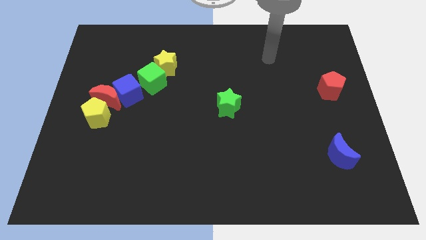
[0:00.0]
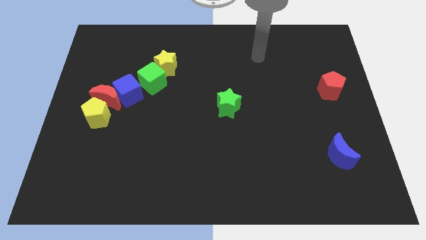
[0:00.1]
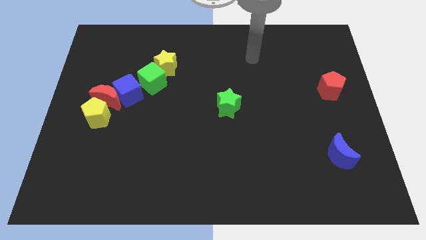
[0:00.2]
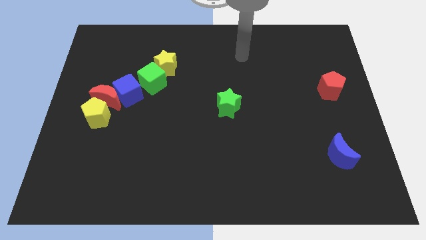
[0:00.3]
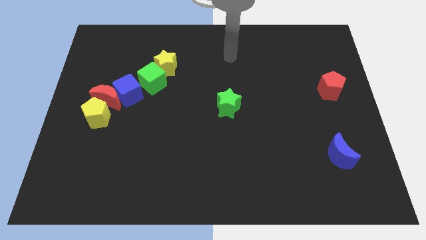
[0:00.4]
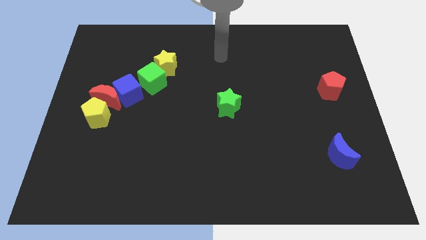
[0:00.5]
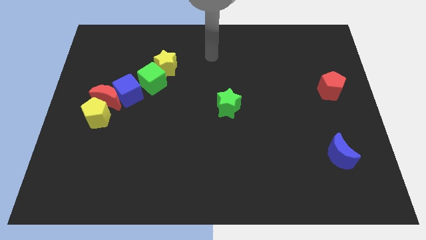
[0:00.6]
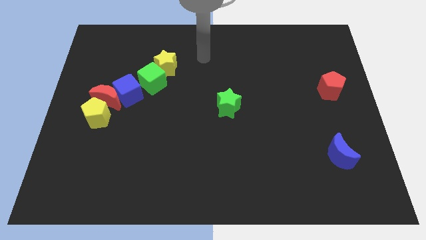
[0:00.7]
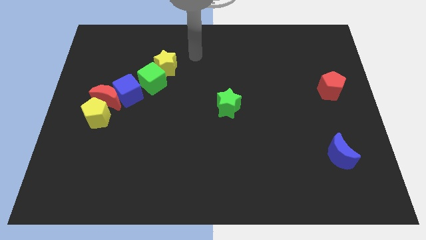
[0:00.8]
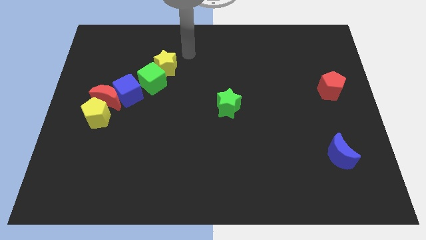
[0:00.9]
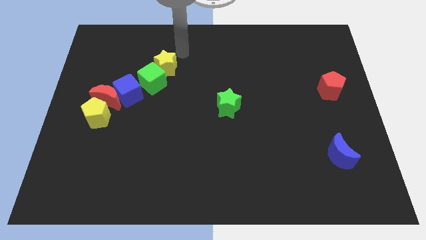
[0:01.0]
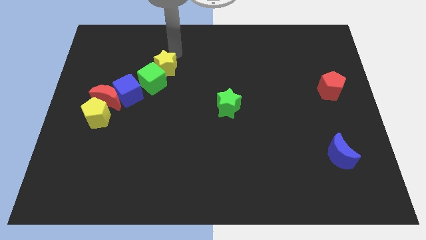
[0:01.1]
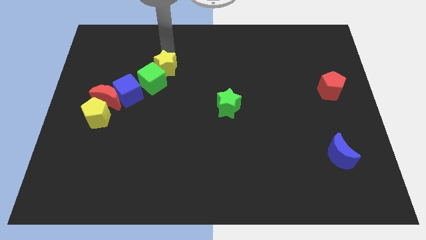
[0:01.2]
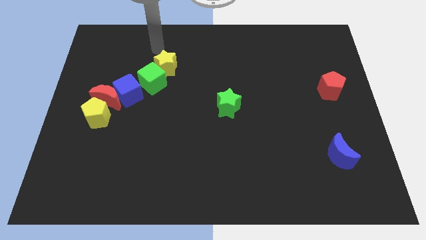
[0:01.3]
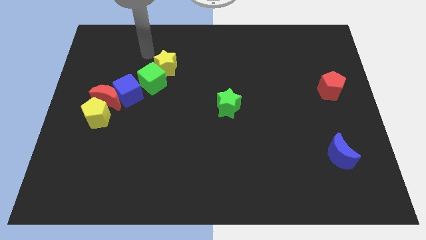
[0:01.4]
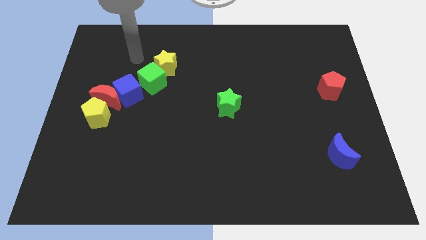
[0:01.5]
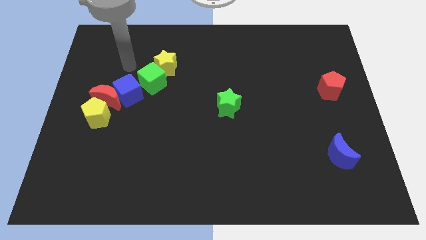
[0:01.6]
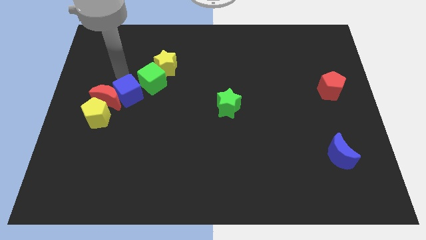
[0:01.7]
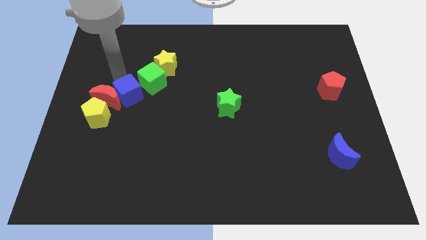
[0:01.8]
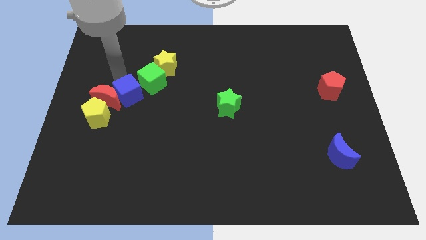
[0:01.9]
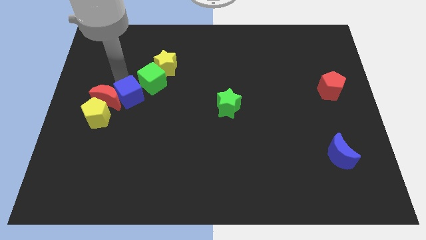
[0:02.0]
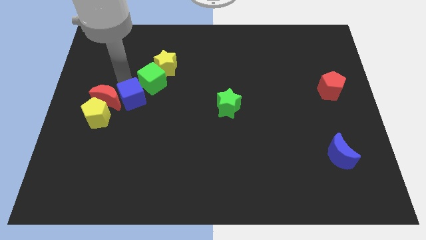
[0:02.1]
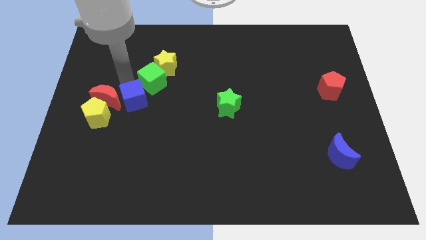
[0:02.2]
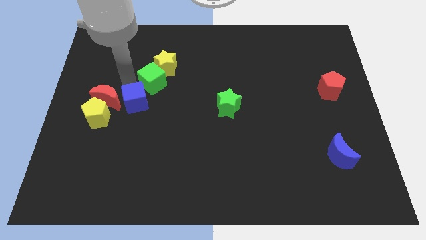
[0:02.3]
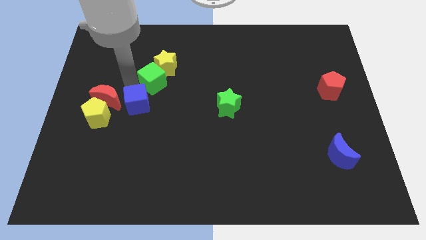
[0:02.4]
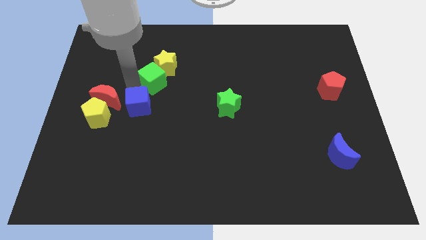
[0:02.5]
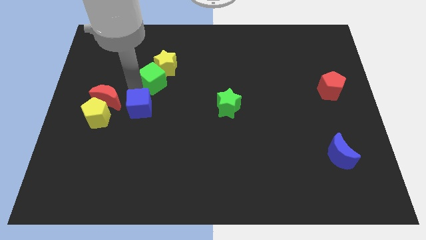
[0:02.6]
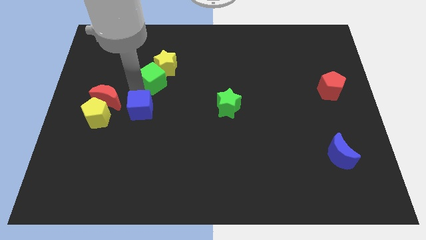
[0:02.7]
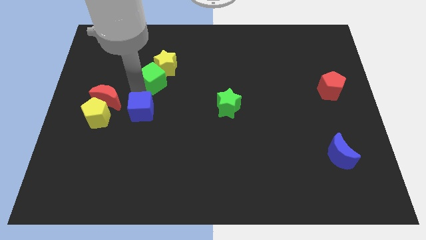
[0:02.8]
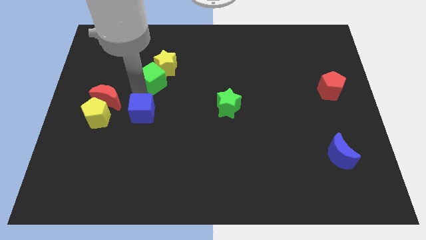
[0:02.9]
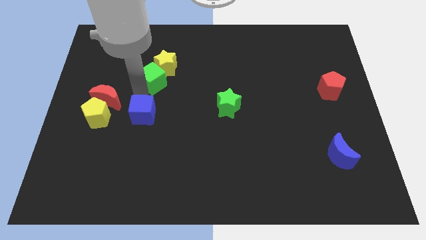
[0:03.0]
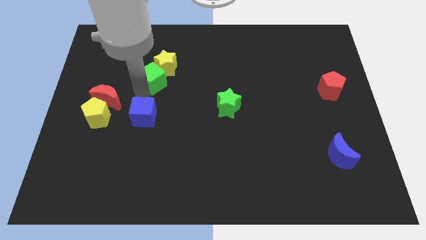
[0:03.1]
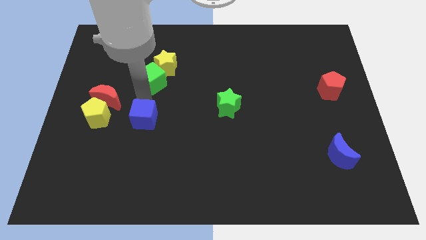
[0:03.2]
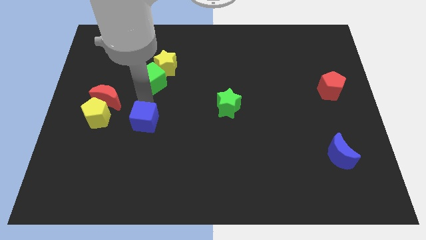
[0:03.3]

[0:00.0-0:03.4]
slide the blue cube down slightly

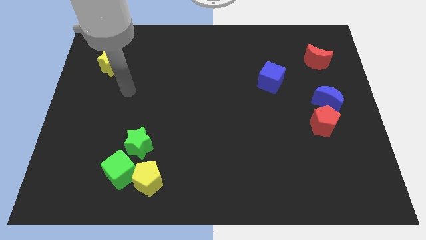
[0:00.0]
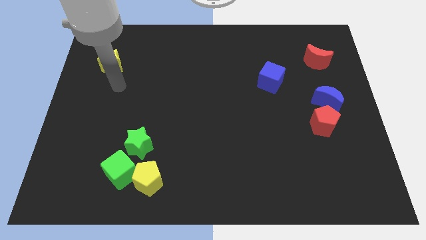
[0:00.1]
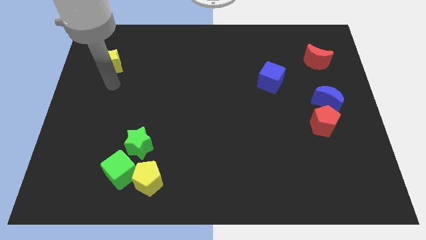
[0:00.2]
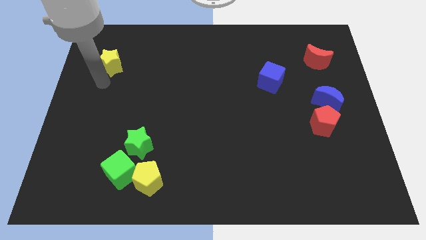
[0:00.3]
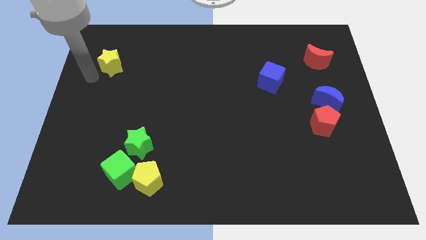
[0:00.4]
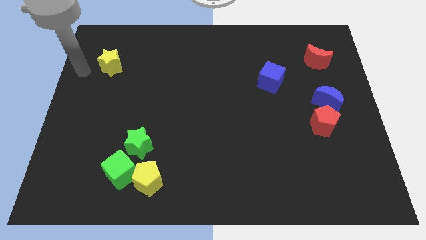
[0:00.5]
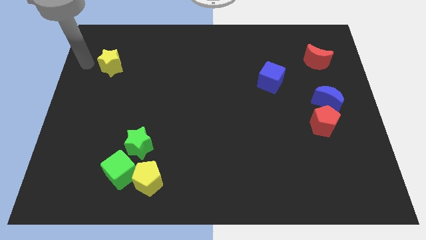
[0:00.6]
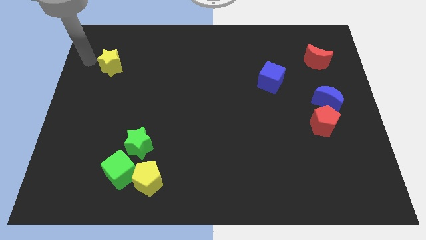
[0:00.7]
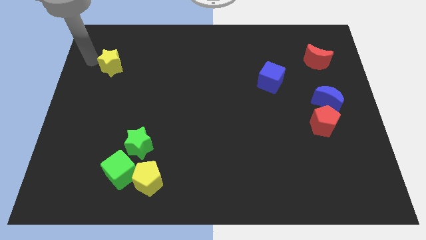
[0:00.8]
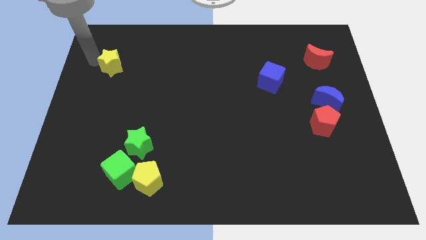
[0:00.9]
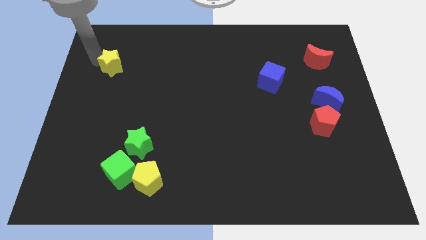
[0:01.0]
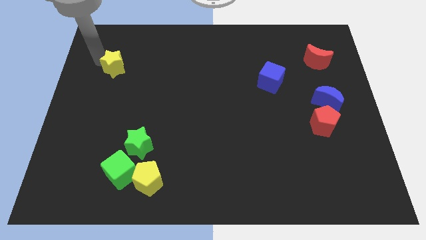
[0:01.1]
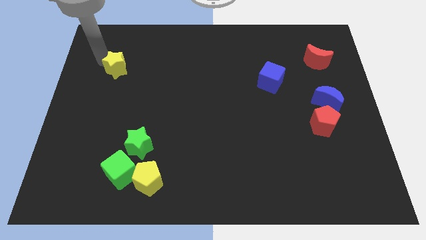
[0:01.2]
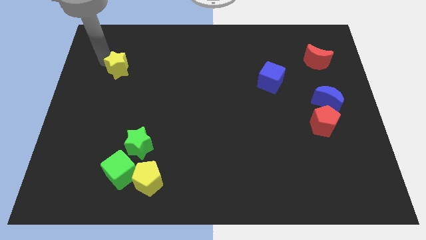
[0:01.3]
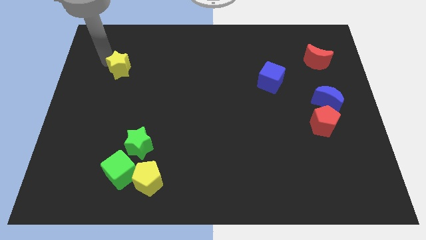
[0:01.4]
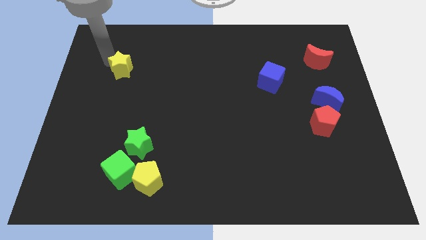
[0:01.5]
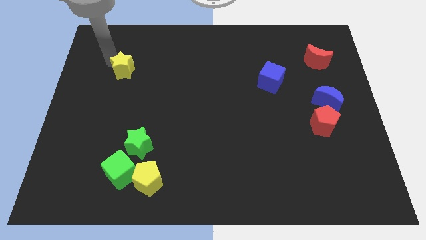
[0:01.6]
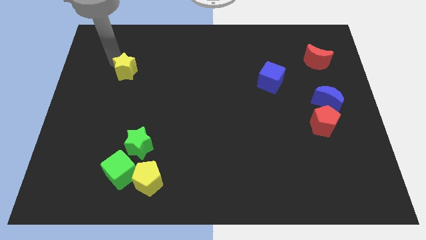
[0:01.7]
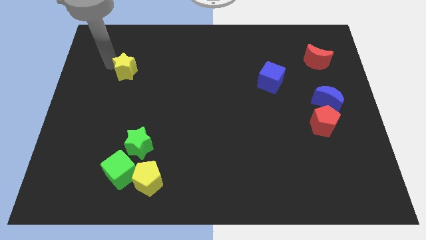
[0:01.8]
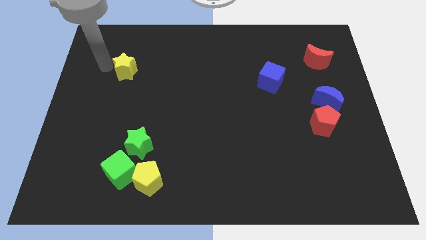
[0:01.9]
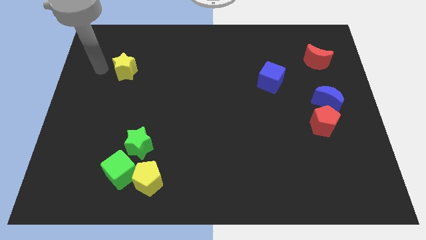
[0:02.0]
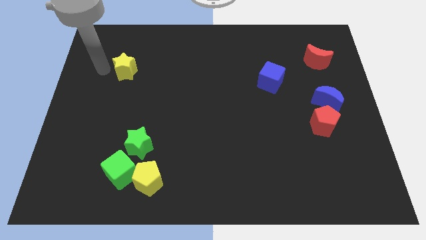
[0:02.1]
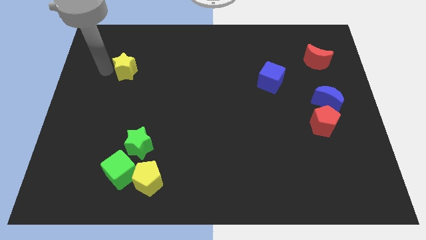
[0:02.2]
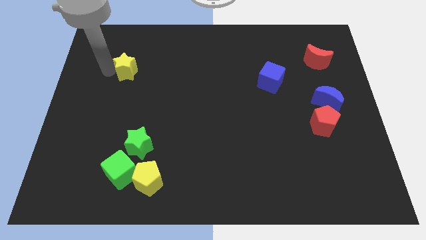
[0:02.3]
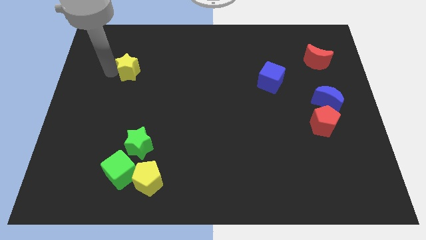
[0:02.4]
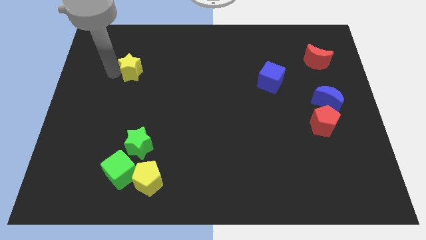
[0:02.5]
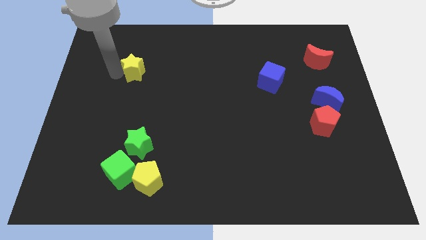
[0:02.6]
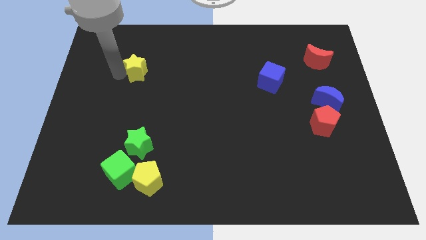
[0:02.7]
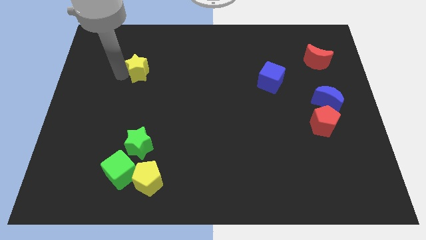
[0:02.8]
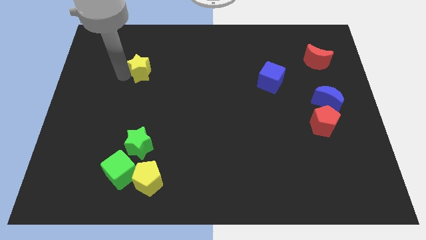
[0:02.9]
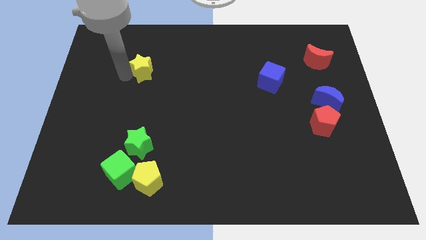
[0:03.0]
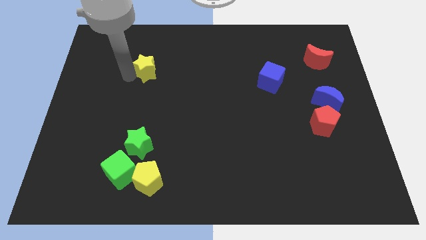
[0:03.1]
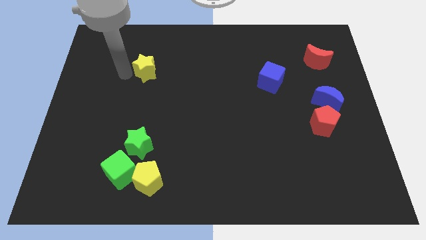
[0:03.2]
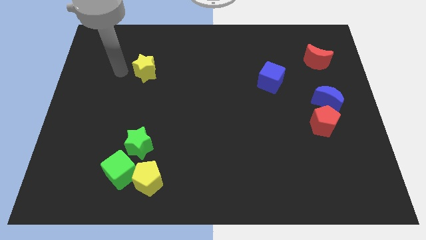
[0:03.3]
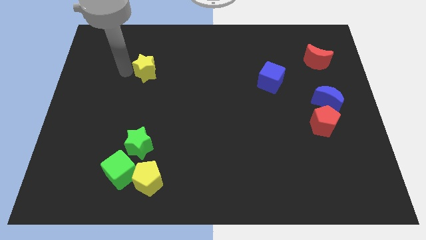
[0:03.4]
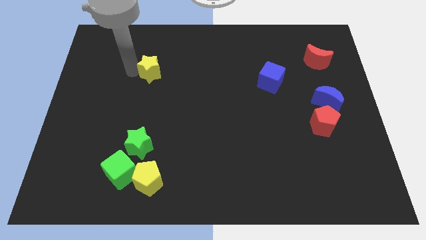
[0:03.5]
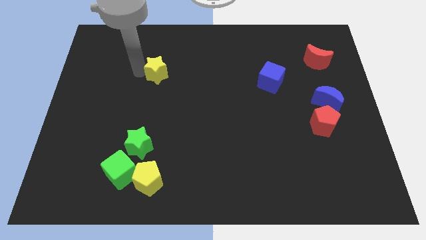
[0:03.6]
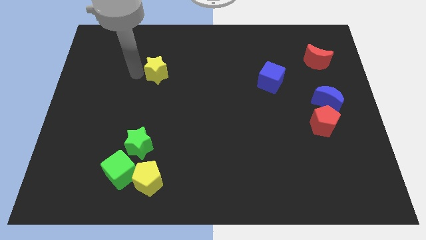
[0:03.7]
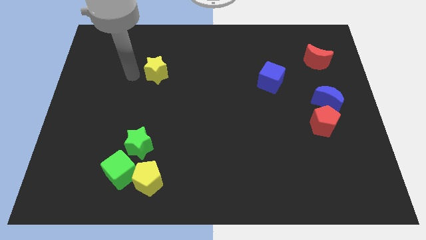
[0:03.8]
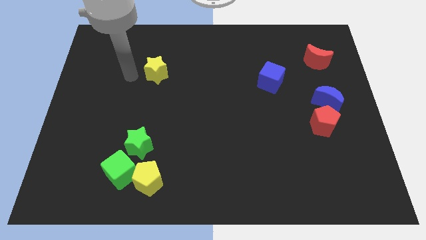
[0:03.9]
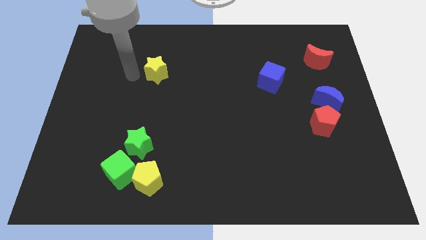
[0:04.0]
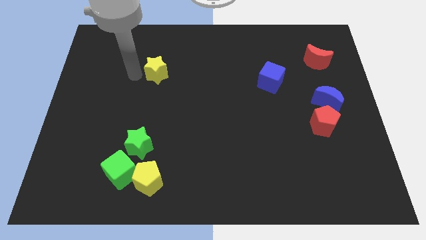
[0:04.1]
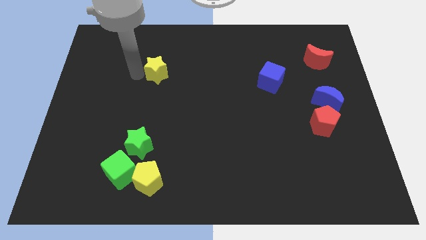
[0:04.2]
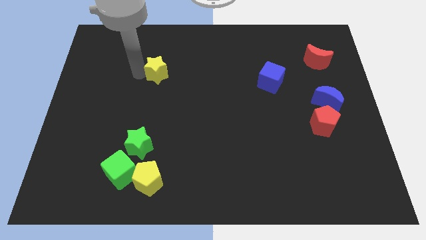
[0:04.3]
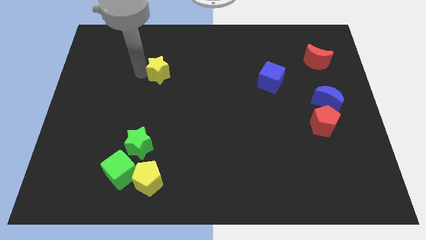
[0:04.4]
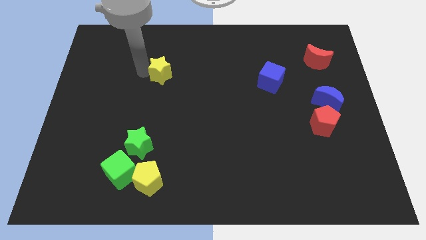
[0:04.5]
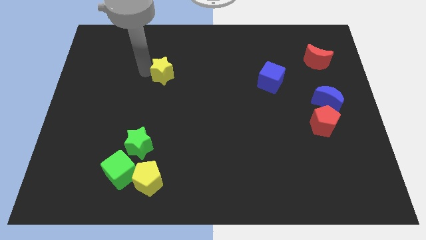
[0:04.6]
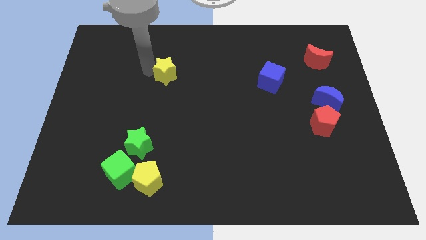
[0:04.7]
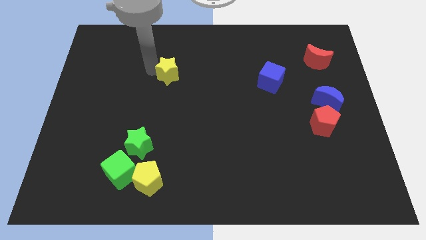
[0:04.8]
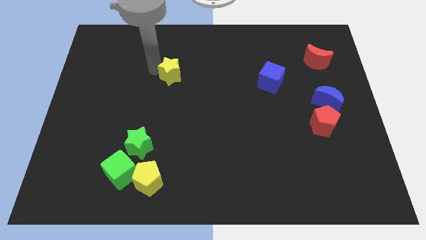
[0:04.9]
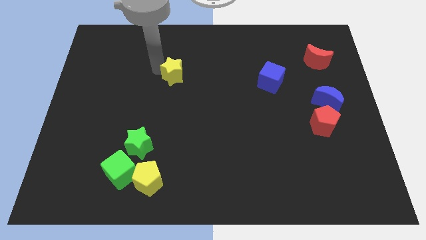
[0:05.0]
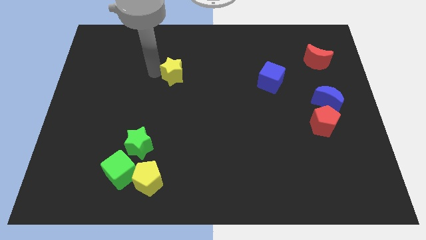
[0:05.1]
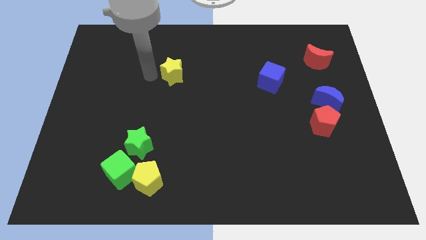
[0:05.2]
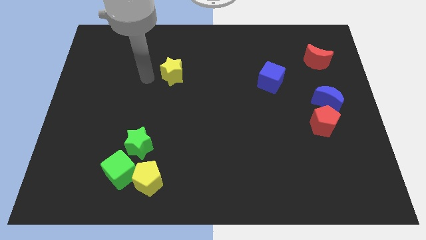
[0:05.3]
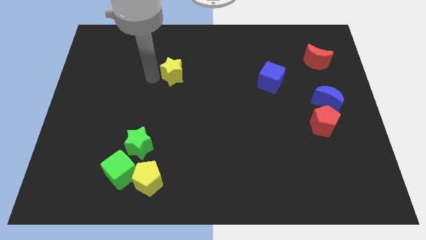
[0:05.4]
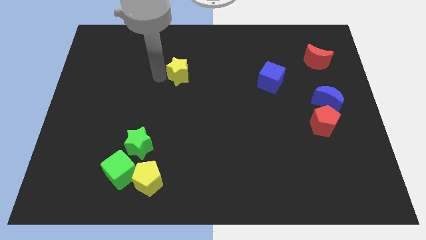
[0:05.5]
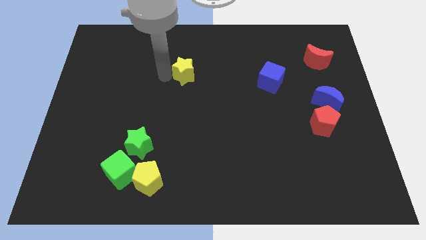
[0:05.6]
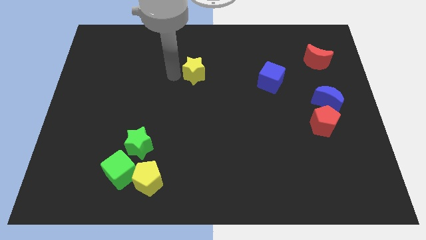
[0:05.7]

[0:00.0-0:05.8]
move the yellow star right
